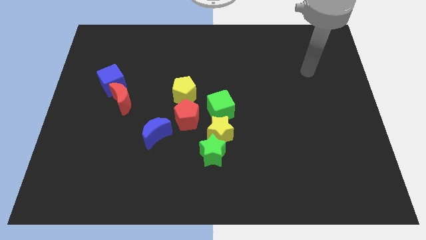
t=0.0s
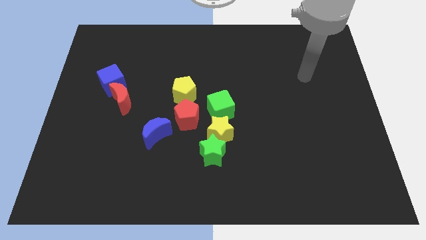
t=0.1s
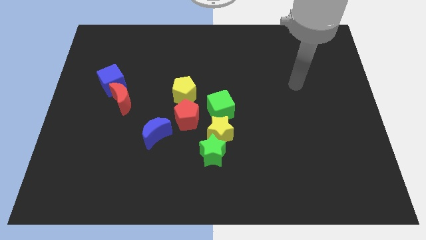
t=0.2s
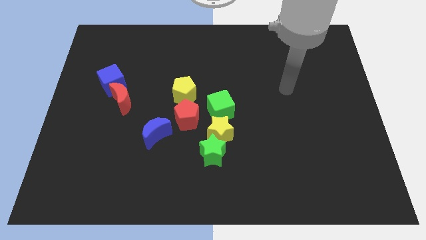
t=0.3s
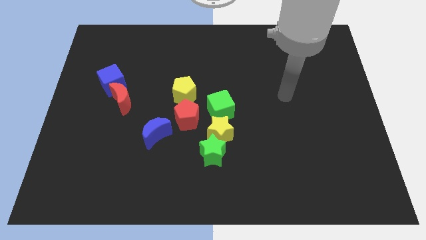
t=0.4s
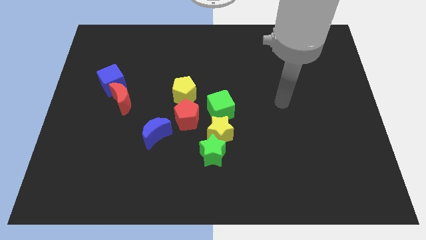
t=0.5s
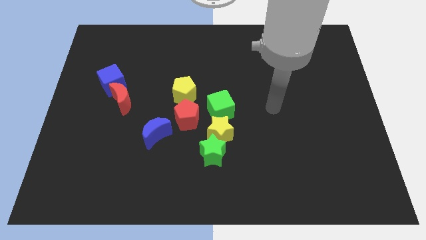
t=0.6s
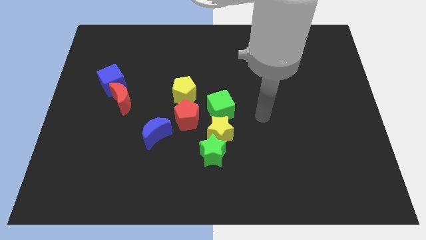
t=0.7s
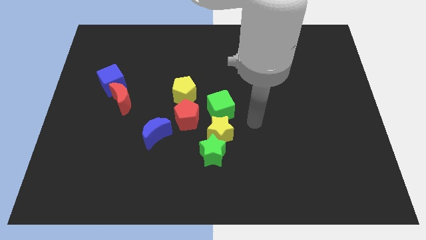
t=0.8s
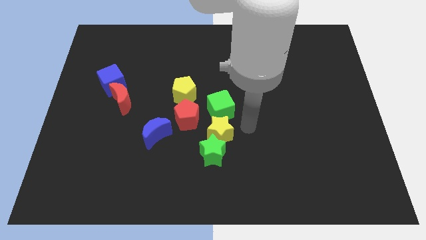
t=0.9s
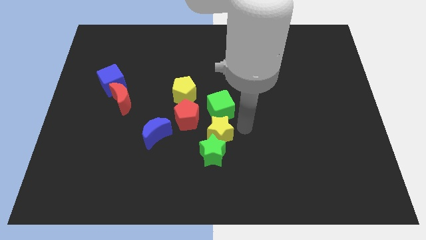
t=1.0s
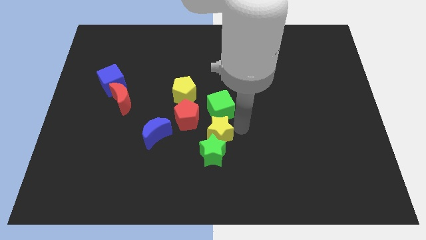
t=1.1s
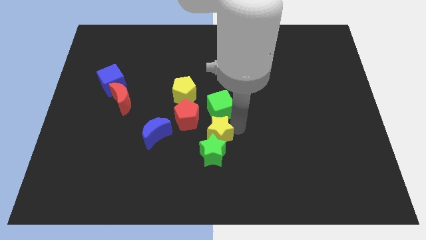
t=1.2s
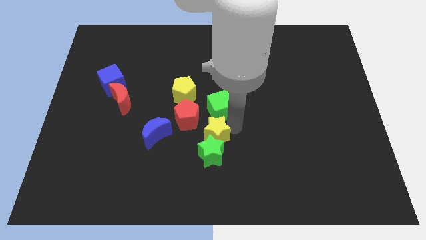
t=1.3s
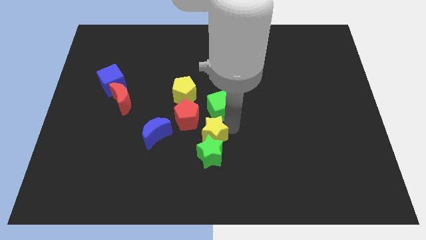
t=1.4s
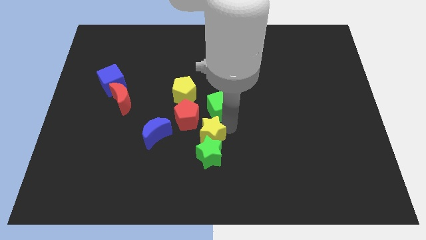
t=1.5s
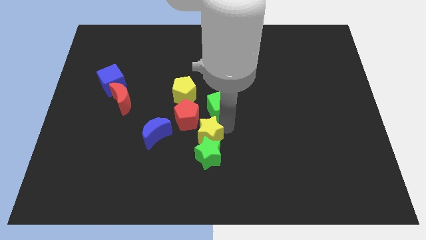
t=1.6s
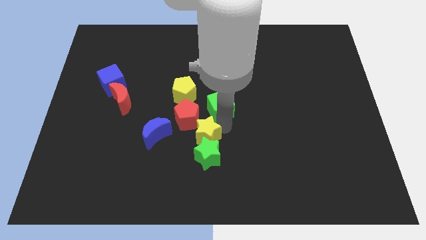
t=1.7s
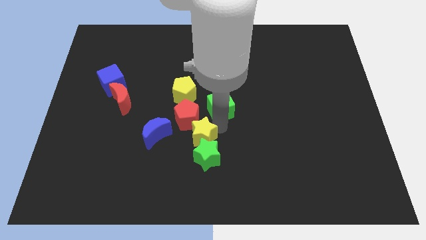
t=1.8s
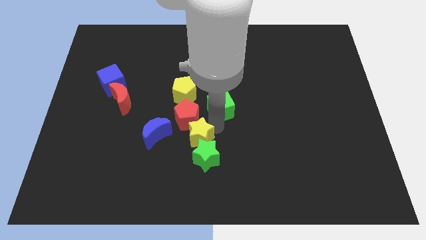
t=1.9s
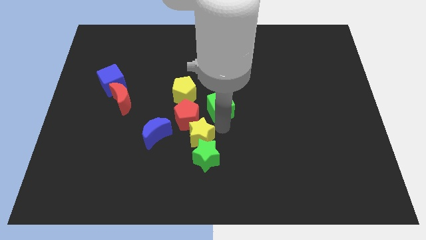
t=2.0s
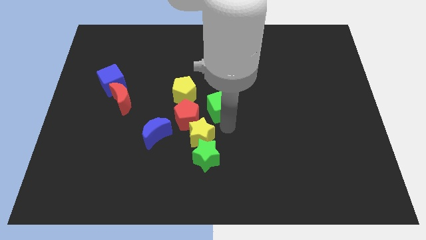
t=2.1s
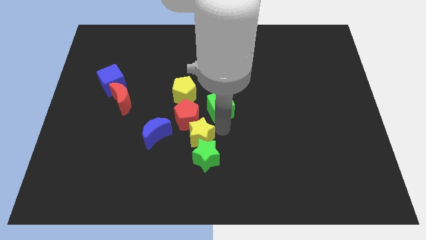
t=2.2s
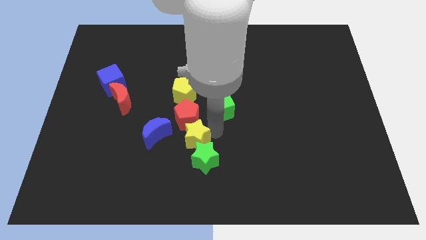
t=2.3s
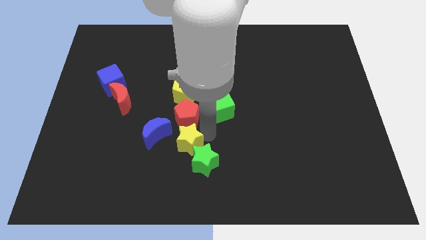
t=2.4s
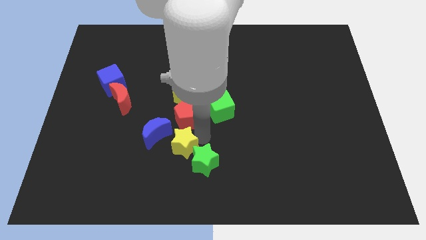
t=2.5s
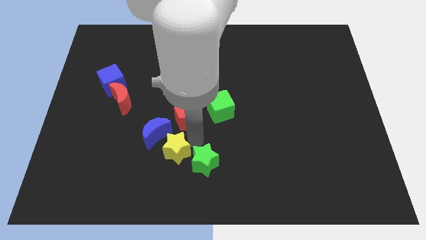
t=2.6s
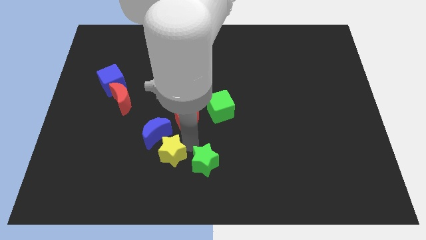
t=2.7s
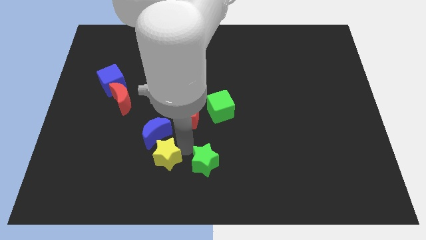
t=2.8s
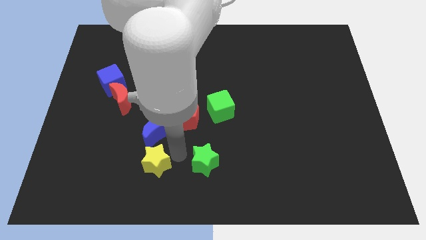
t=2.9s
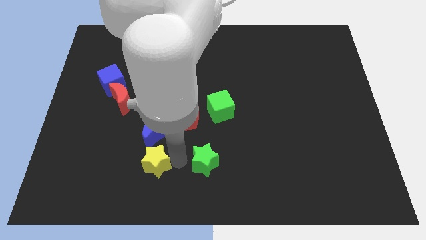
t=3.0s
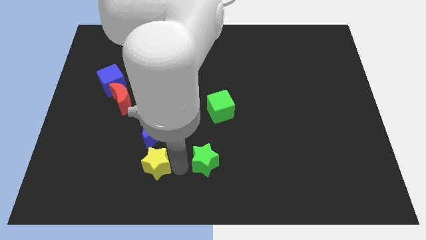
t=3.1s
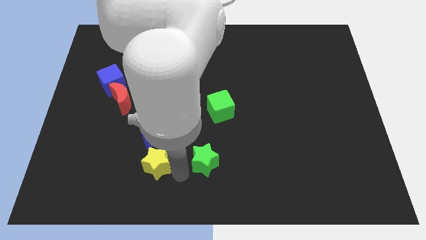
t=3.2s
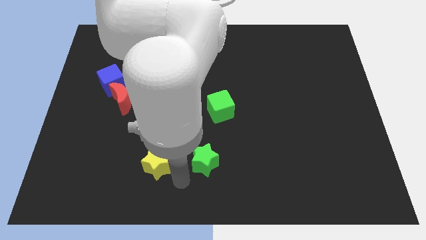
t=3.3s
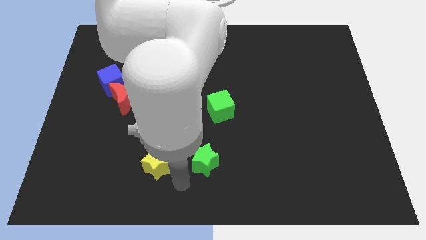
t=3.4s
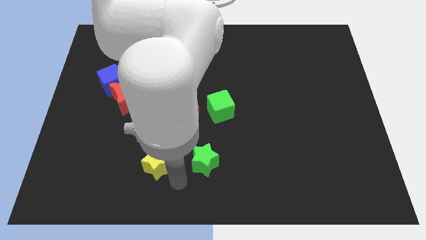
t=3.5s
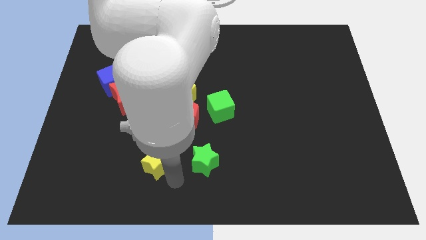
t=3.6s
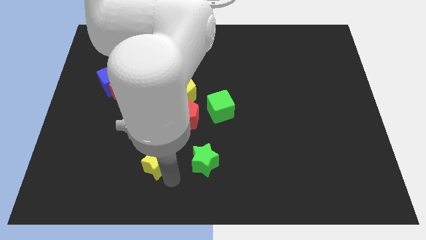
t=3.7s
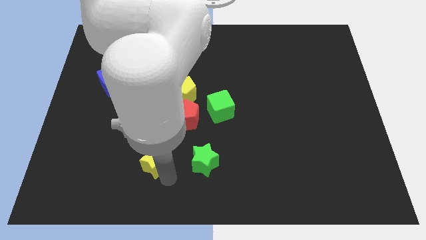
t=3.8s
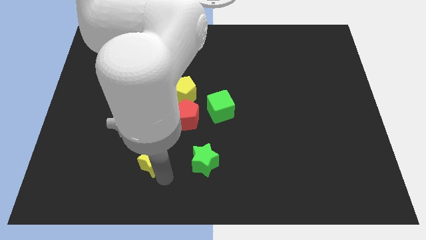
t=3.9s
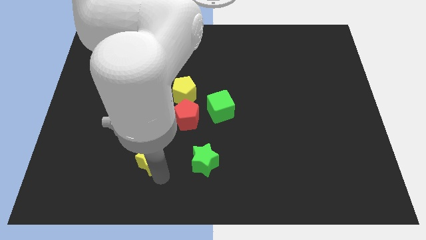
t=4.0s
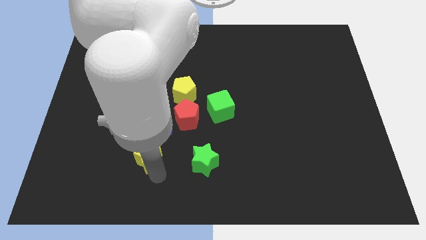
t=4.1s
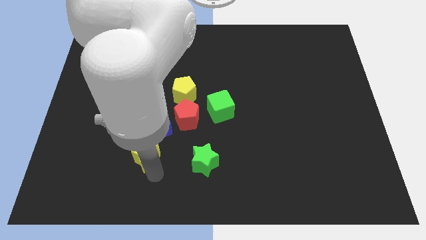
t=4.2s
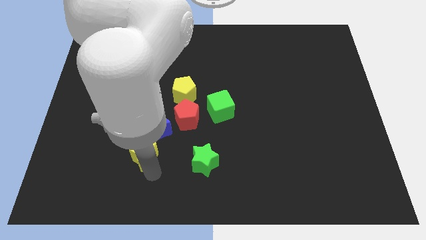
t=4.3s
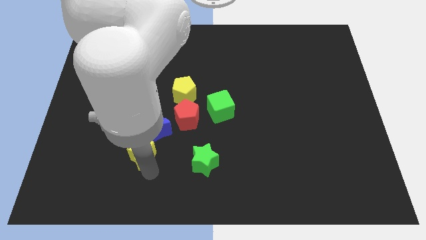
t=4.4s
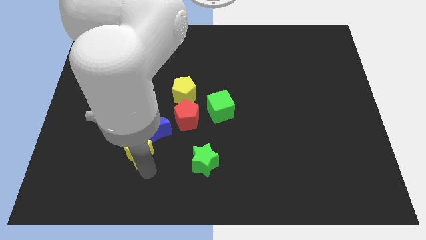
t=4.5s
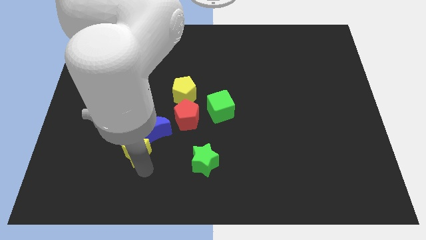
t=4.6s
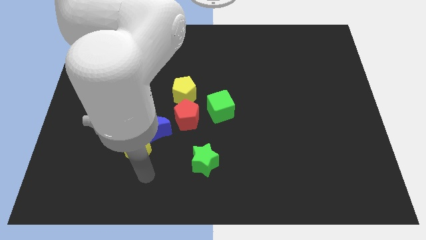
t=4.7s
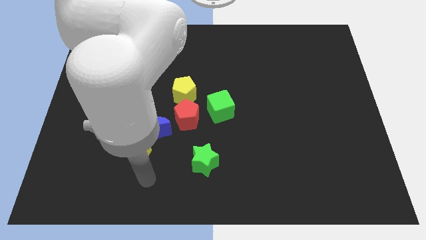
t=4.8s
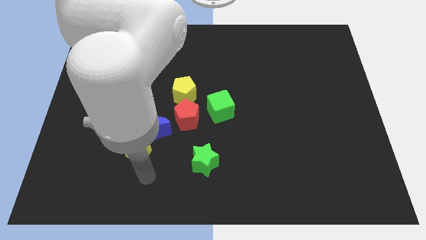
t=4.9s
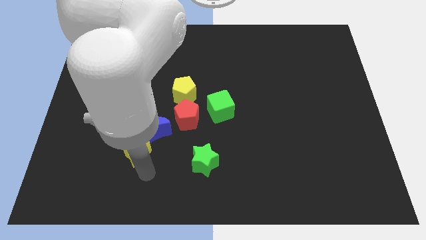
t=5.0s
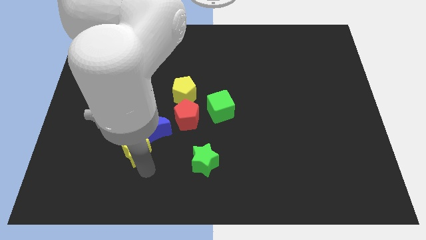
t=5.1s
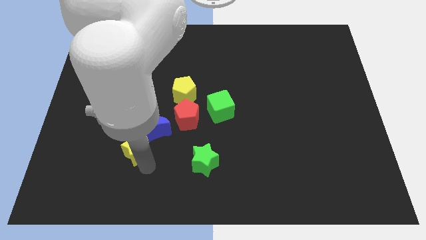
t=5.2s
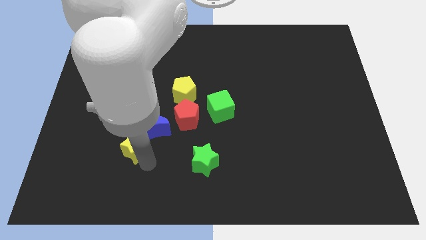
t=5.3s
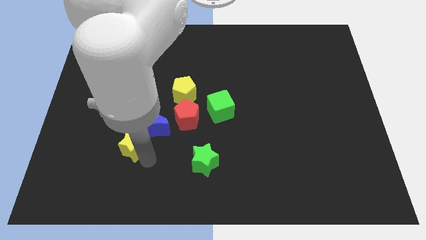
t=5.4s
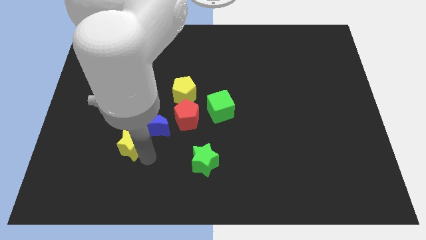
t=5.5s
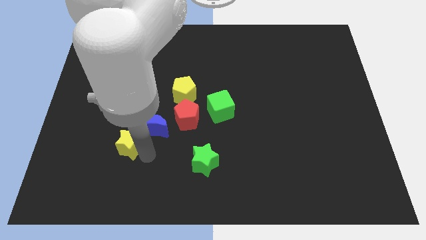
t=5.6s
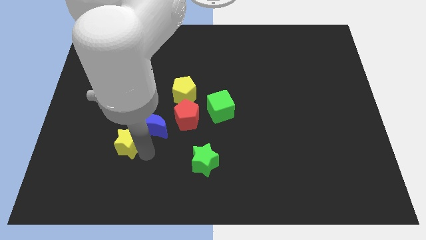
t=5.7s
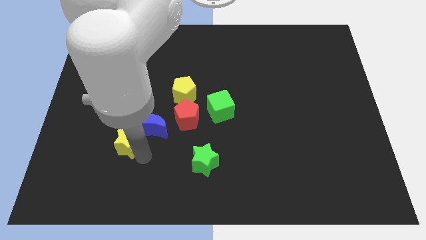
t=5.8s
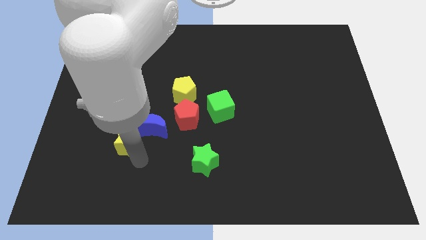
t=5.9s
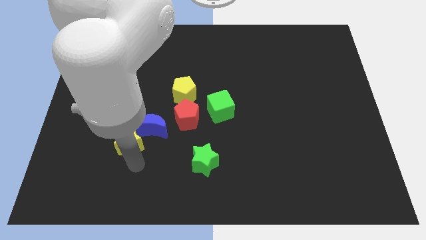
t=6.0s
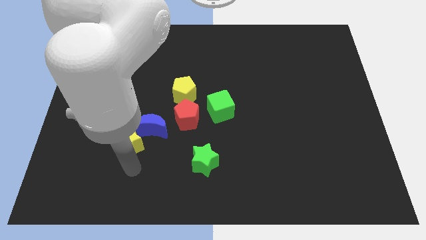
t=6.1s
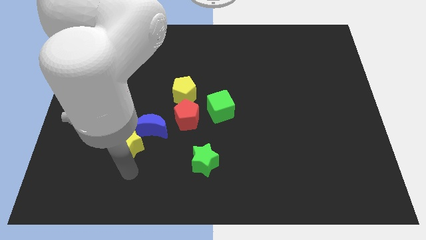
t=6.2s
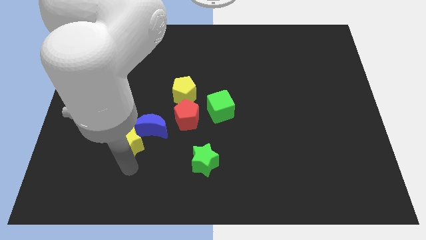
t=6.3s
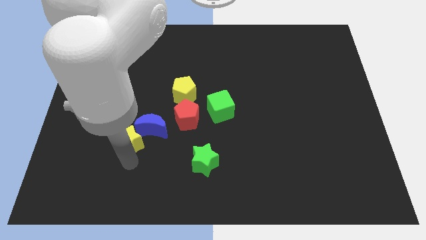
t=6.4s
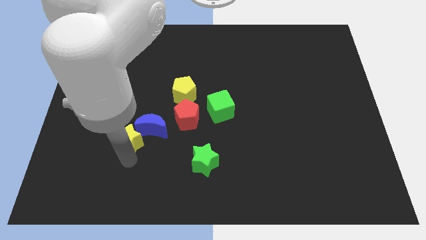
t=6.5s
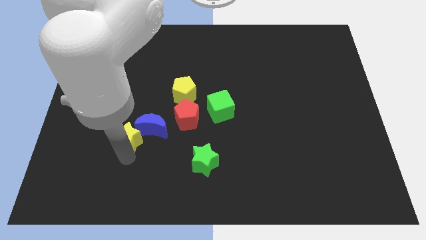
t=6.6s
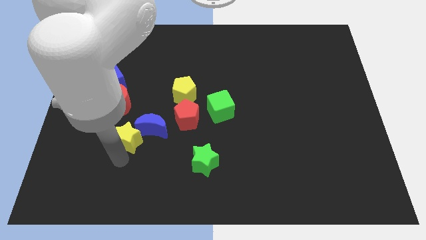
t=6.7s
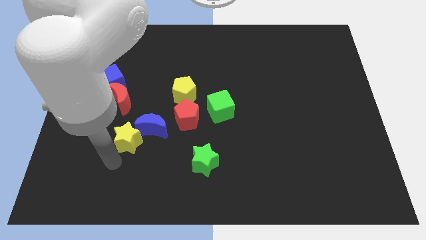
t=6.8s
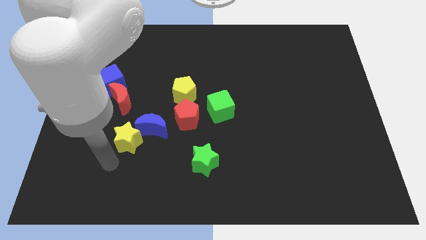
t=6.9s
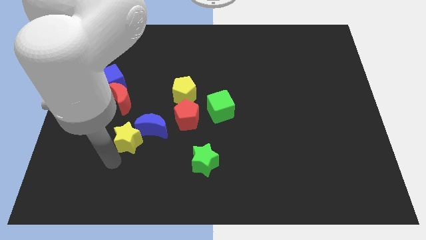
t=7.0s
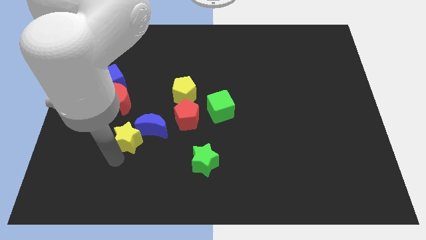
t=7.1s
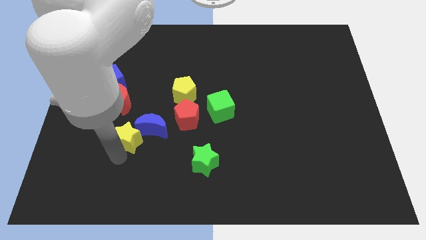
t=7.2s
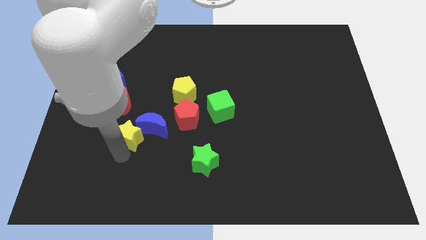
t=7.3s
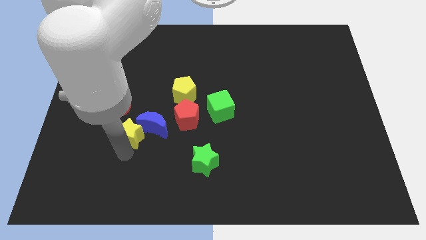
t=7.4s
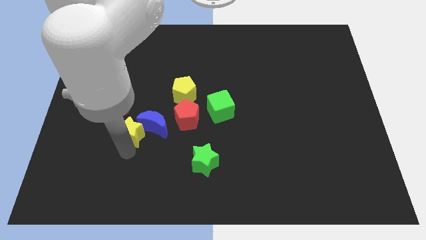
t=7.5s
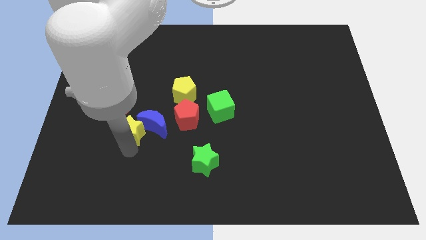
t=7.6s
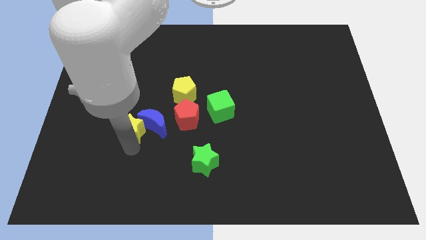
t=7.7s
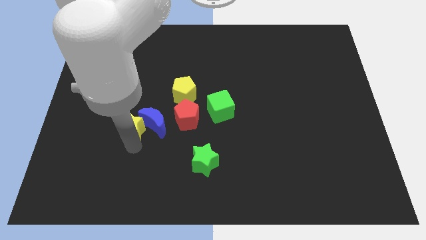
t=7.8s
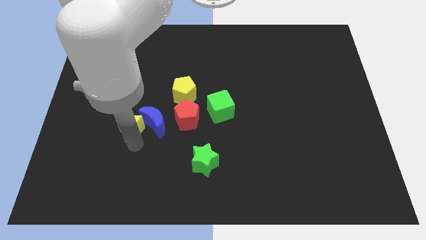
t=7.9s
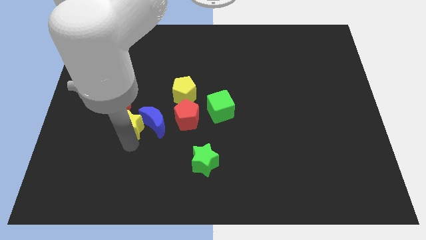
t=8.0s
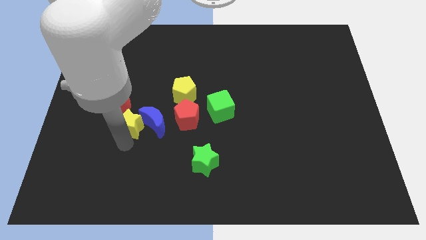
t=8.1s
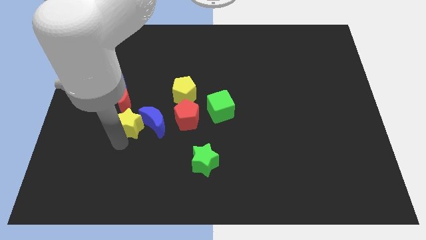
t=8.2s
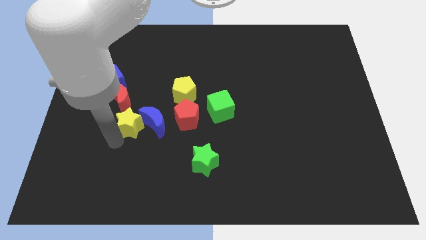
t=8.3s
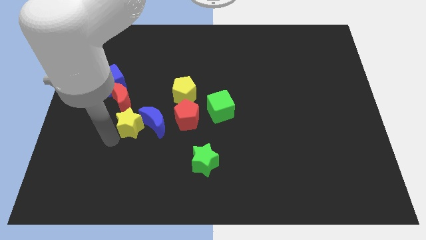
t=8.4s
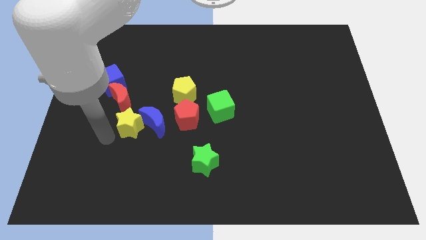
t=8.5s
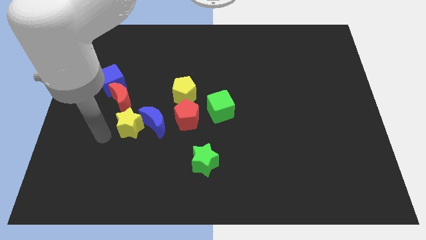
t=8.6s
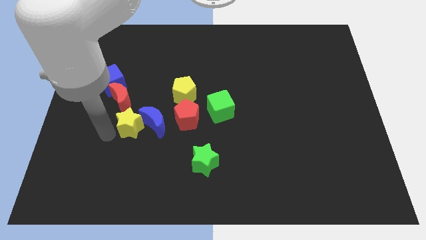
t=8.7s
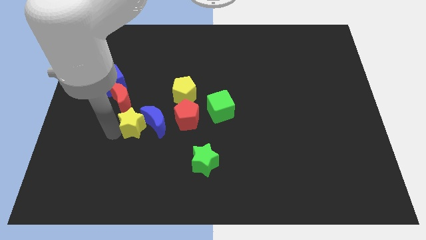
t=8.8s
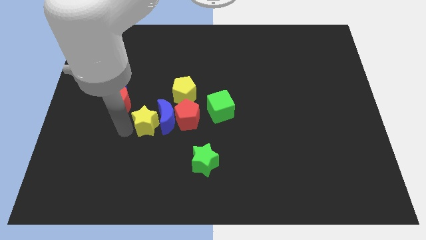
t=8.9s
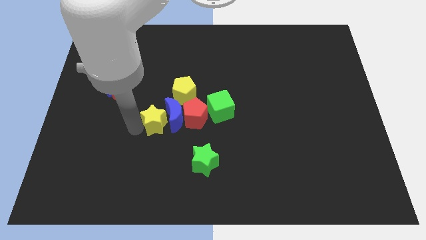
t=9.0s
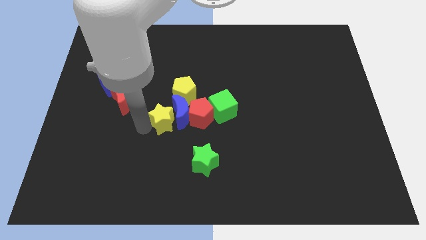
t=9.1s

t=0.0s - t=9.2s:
put the yellow star left of the green cube
